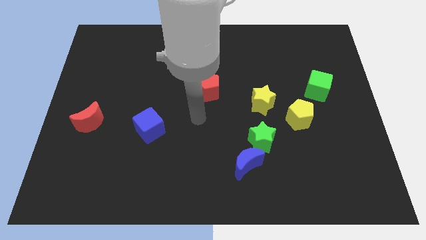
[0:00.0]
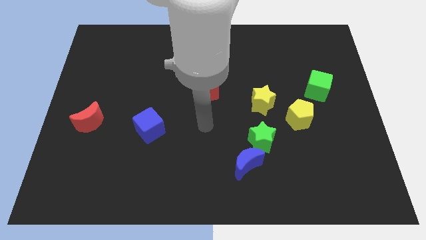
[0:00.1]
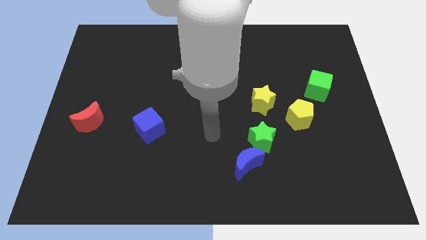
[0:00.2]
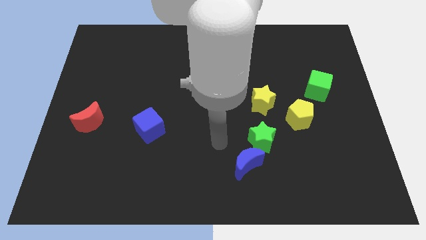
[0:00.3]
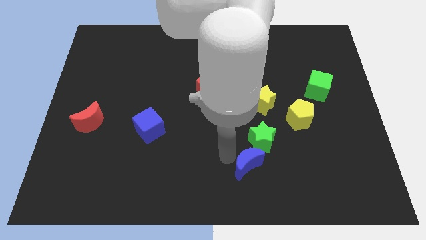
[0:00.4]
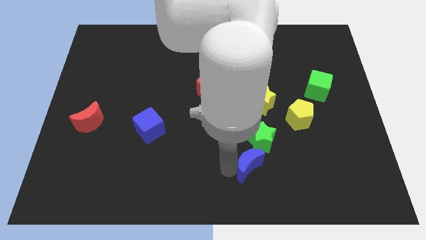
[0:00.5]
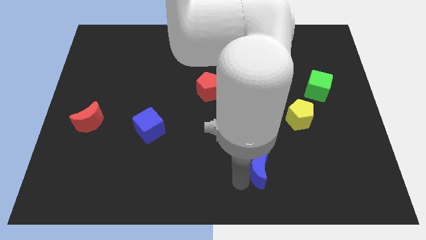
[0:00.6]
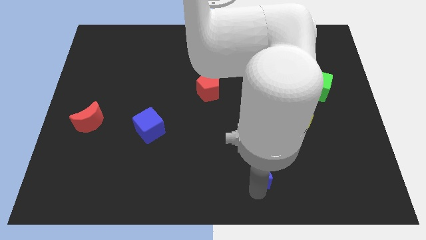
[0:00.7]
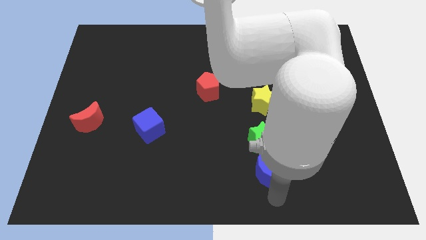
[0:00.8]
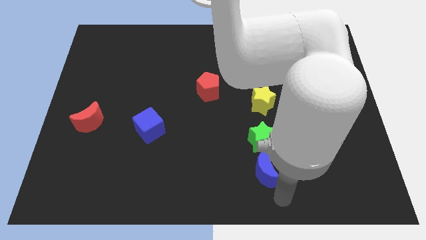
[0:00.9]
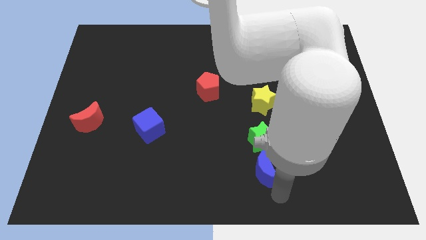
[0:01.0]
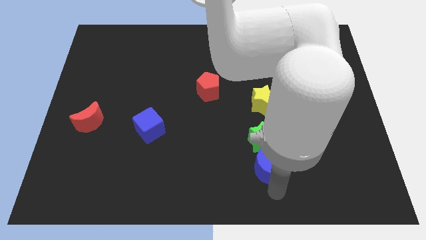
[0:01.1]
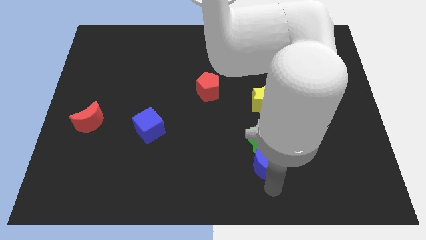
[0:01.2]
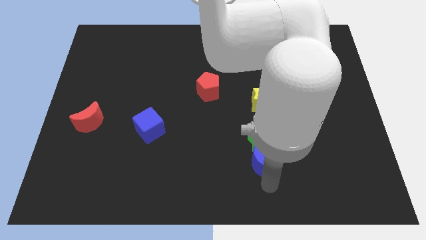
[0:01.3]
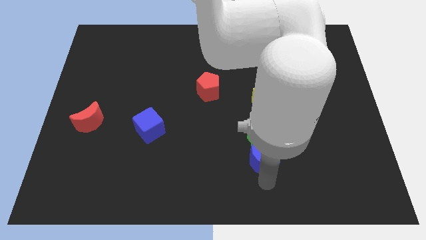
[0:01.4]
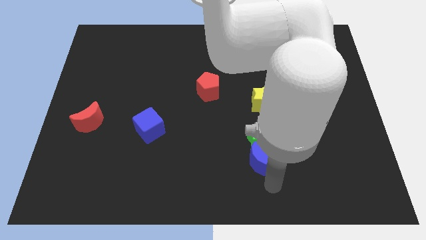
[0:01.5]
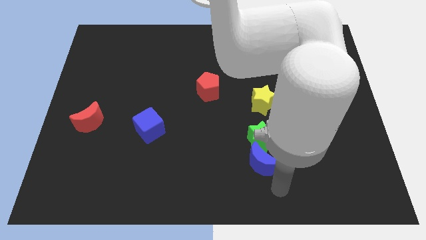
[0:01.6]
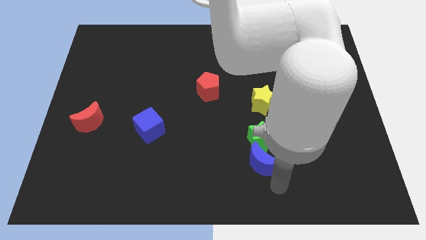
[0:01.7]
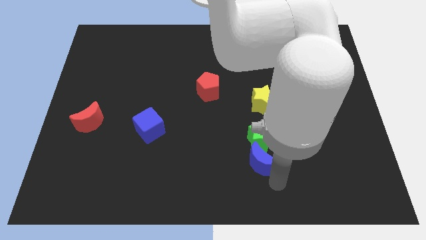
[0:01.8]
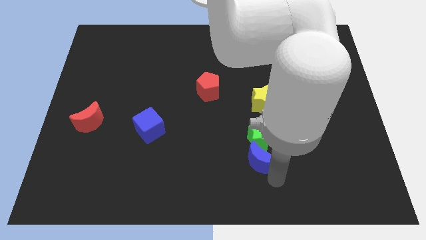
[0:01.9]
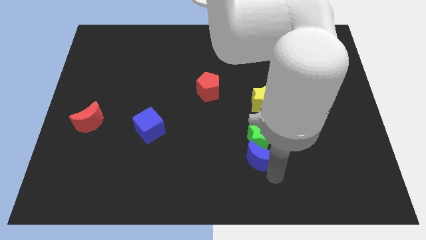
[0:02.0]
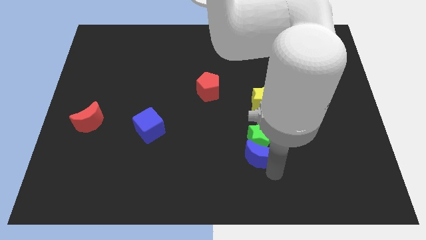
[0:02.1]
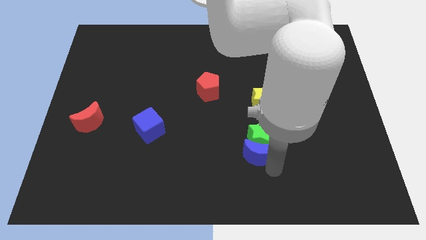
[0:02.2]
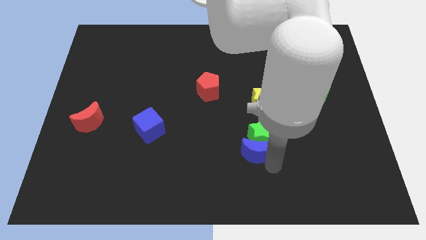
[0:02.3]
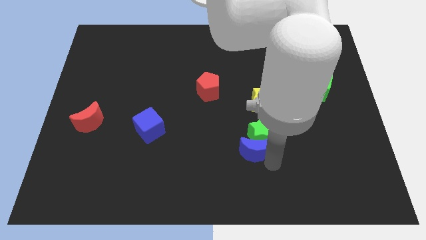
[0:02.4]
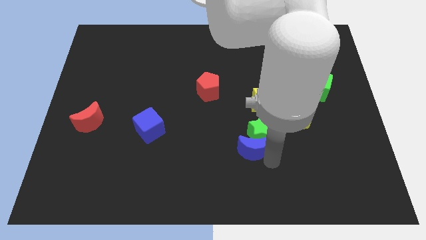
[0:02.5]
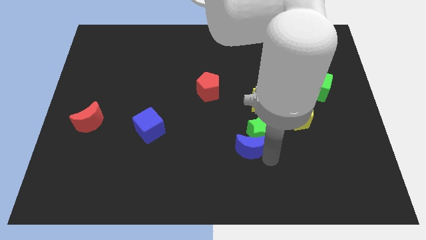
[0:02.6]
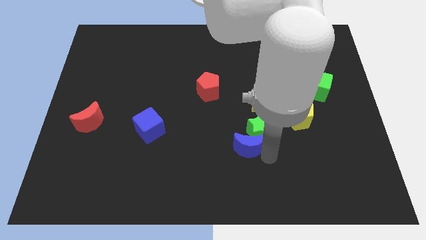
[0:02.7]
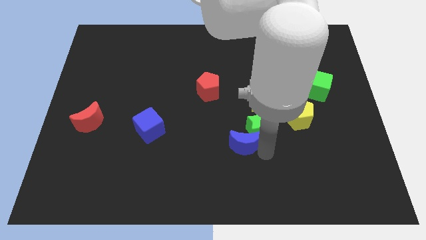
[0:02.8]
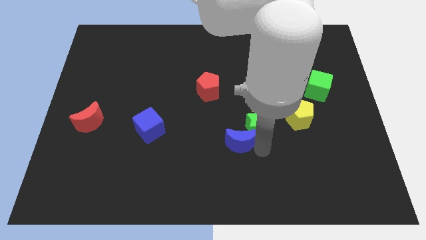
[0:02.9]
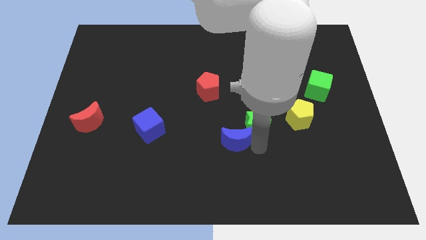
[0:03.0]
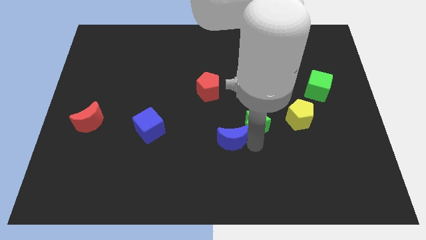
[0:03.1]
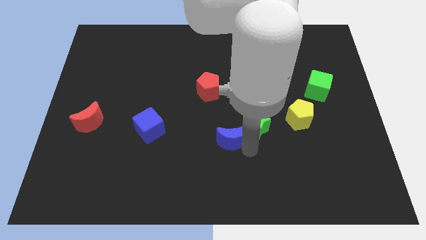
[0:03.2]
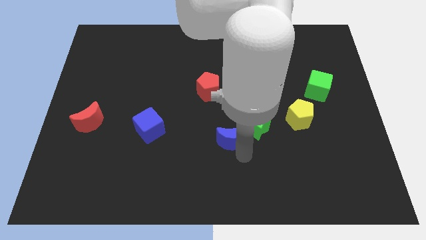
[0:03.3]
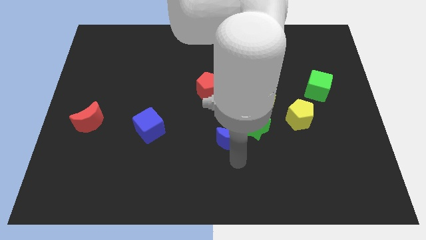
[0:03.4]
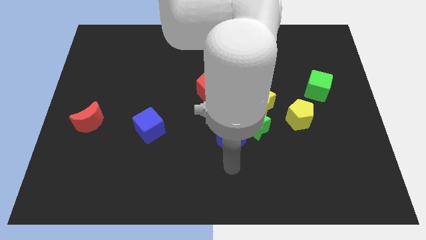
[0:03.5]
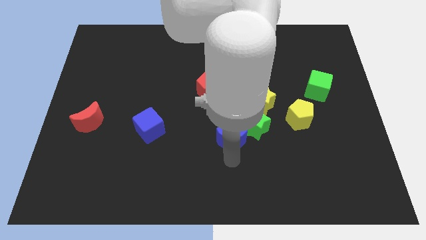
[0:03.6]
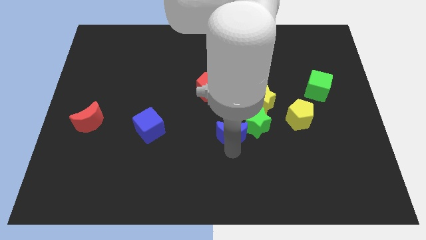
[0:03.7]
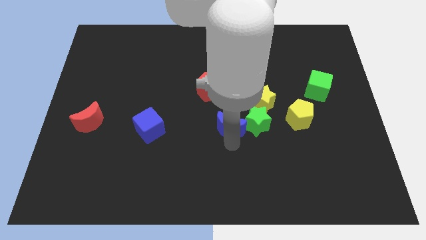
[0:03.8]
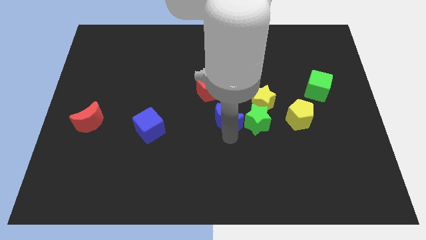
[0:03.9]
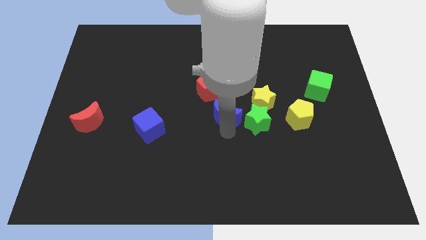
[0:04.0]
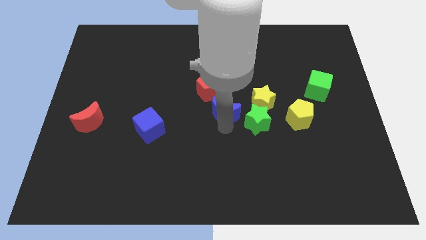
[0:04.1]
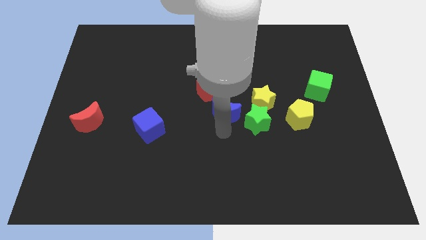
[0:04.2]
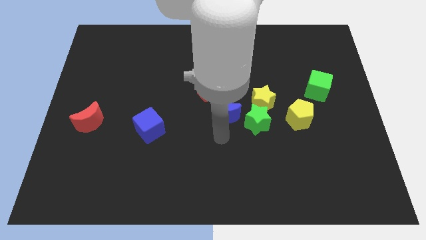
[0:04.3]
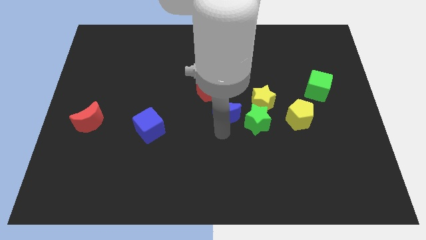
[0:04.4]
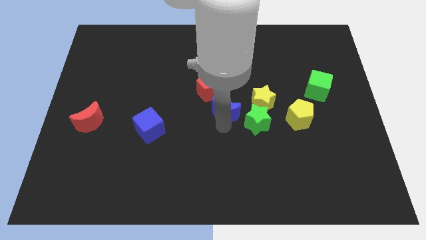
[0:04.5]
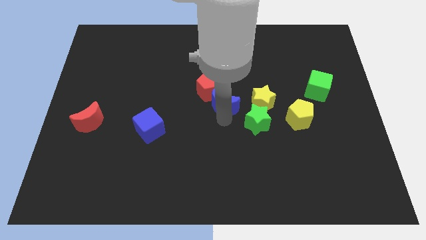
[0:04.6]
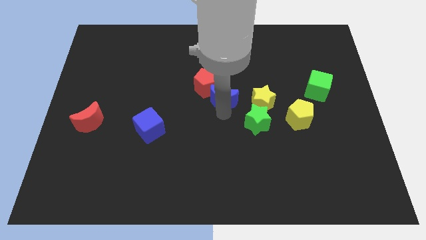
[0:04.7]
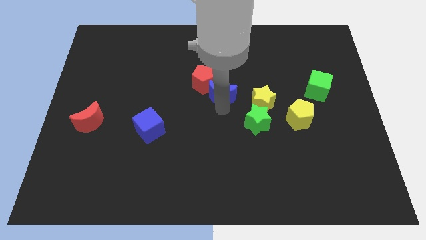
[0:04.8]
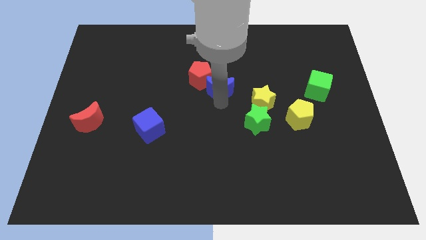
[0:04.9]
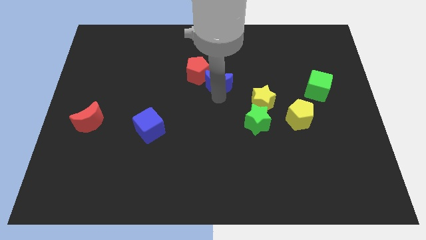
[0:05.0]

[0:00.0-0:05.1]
move the blue moon up

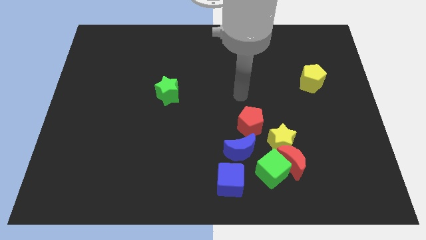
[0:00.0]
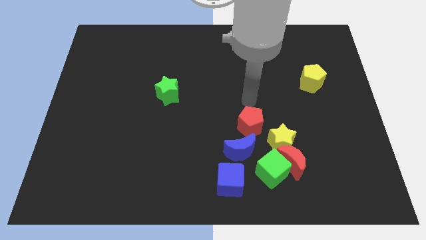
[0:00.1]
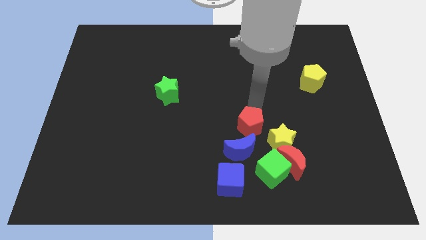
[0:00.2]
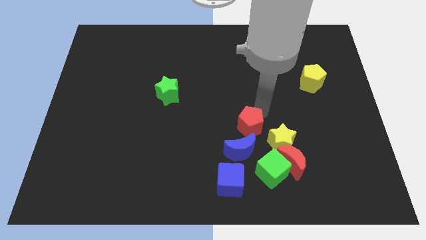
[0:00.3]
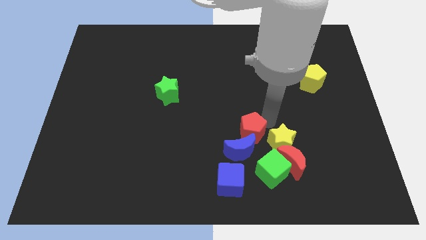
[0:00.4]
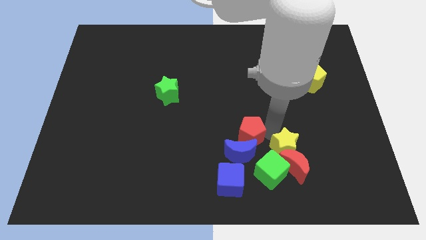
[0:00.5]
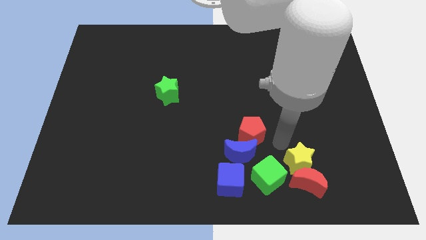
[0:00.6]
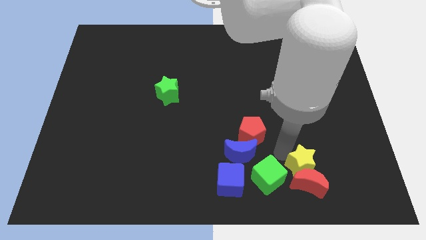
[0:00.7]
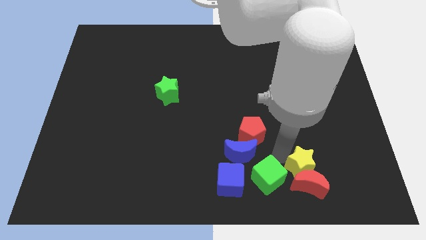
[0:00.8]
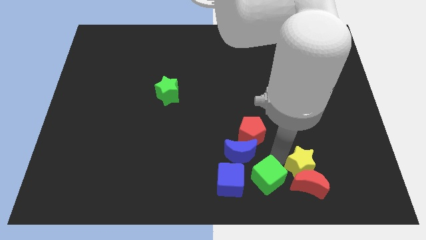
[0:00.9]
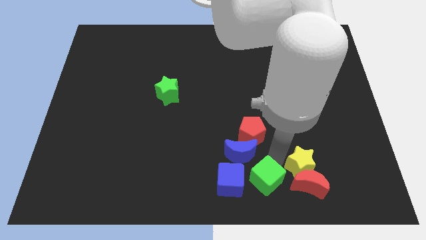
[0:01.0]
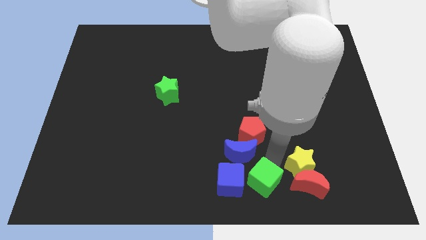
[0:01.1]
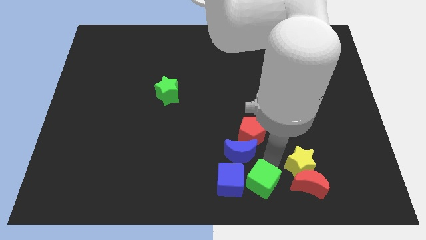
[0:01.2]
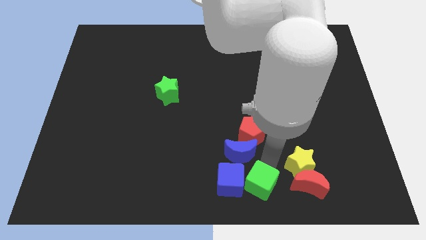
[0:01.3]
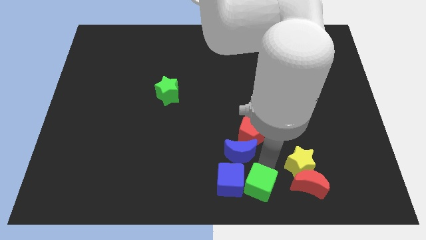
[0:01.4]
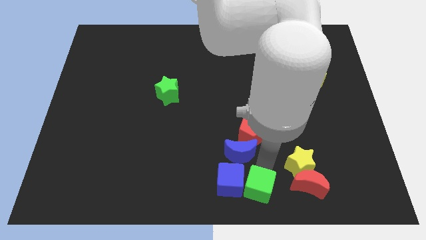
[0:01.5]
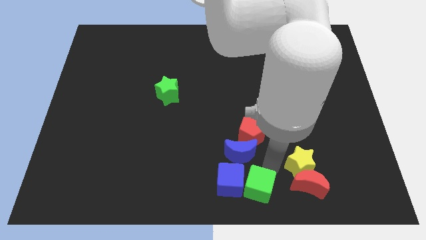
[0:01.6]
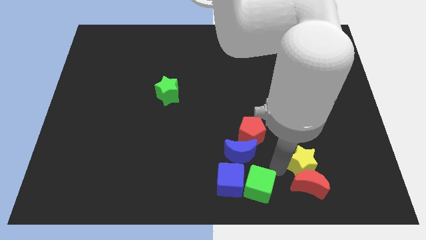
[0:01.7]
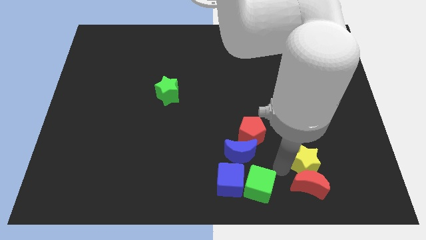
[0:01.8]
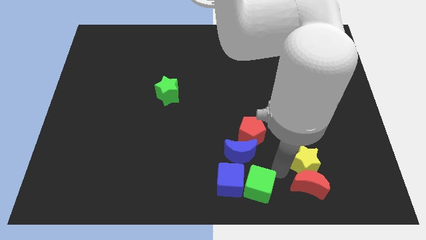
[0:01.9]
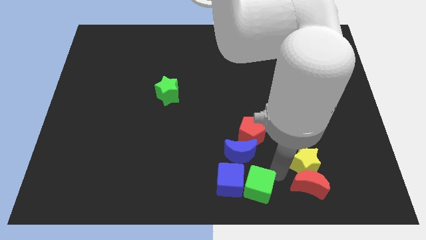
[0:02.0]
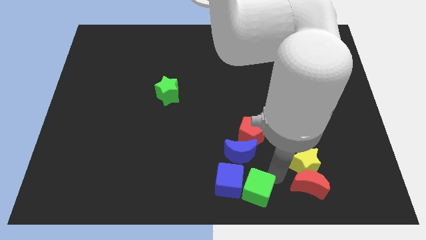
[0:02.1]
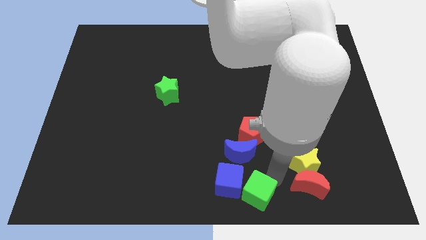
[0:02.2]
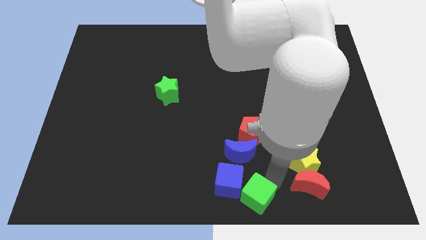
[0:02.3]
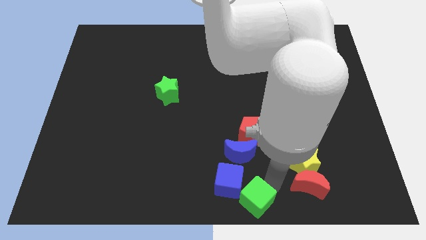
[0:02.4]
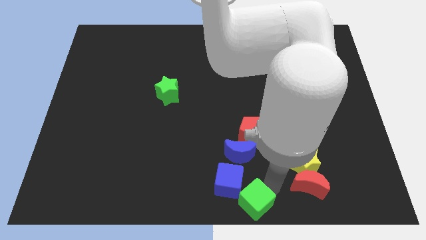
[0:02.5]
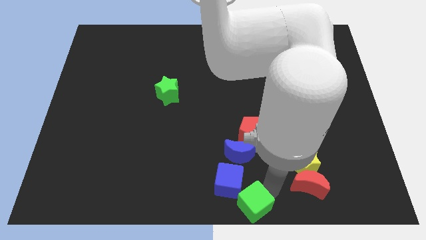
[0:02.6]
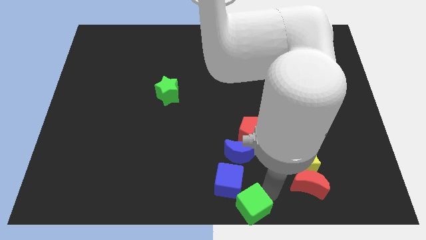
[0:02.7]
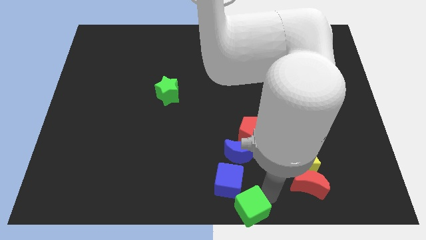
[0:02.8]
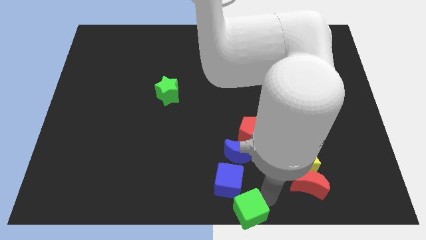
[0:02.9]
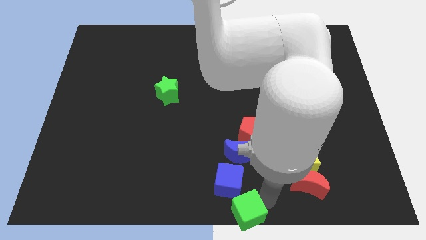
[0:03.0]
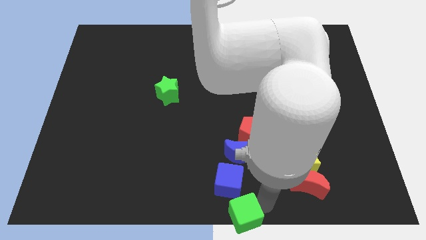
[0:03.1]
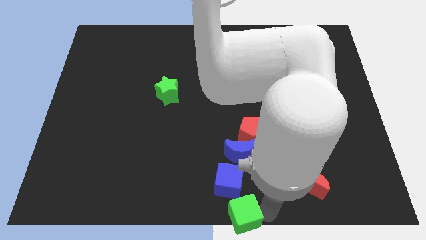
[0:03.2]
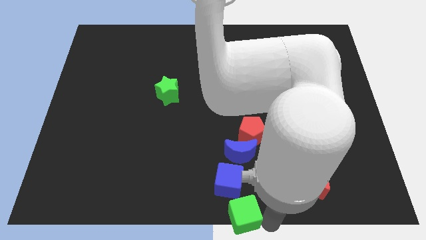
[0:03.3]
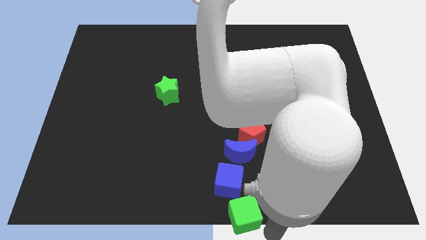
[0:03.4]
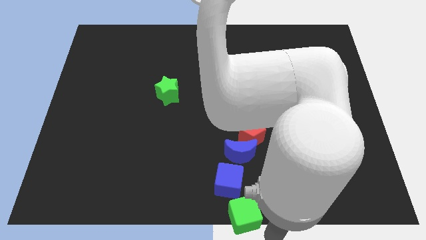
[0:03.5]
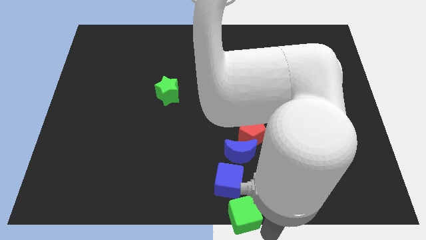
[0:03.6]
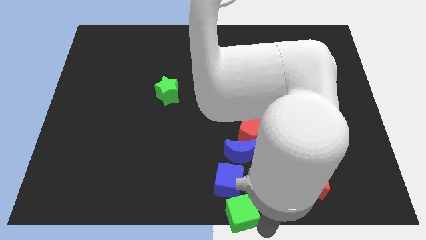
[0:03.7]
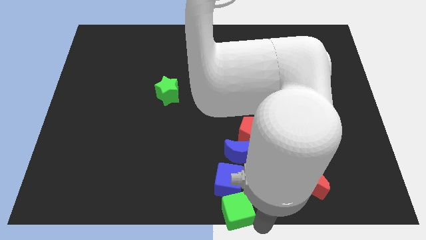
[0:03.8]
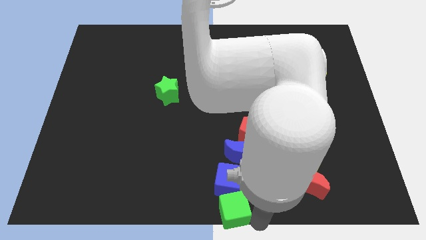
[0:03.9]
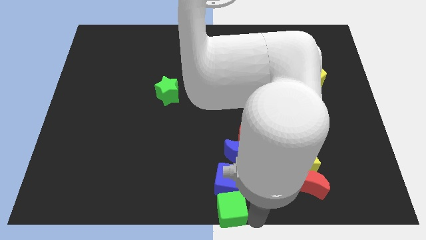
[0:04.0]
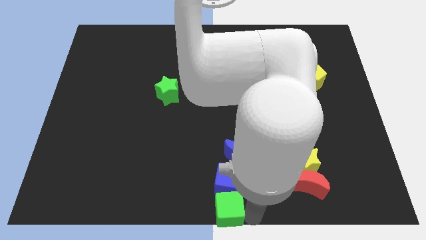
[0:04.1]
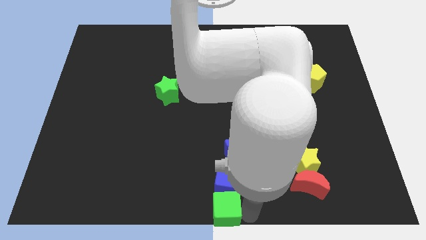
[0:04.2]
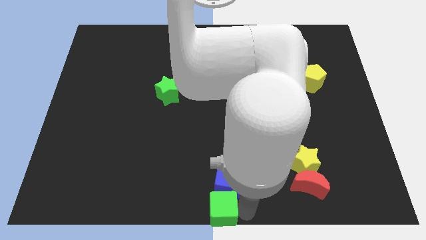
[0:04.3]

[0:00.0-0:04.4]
push the green cube somewhat left
